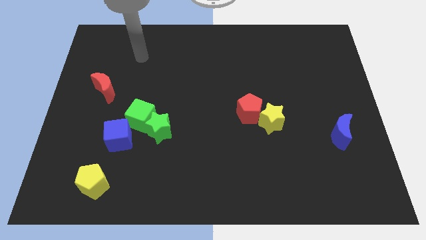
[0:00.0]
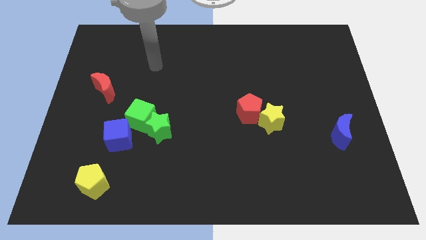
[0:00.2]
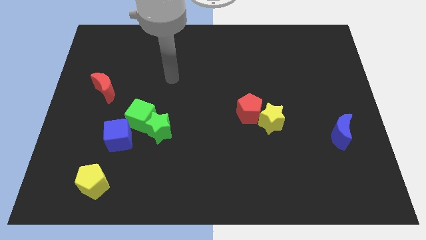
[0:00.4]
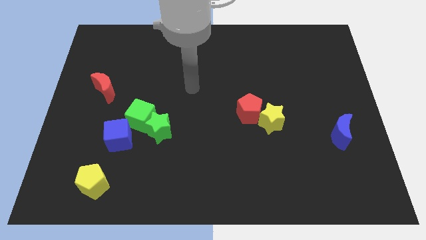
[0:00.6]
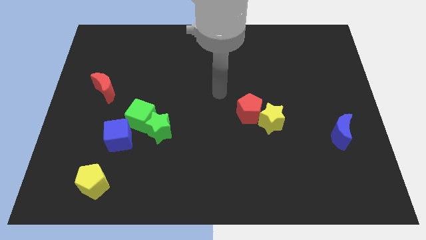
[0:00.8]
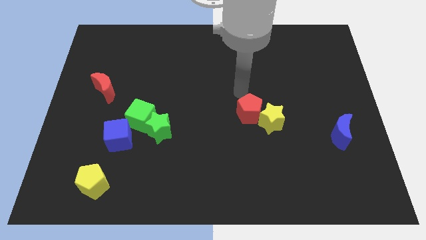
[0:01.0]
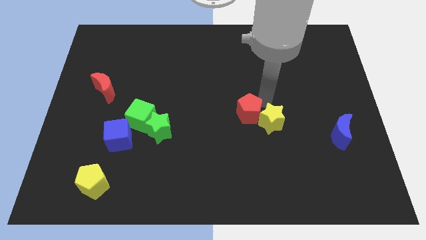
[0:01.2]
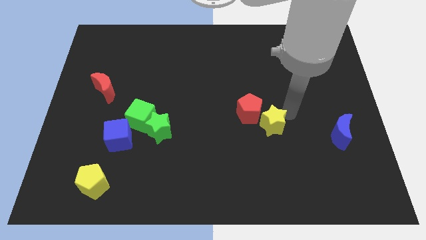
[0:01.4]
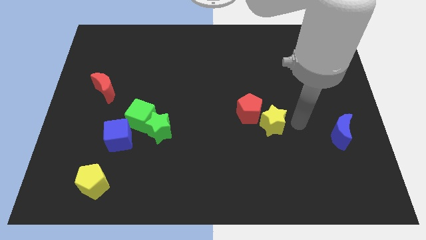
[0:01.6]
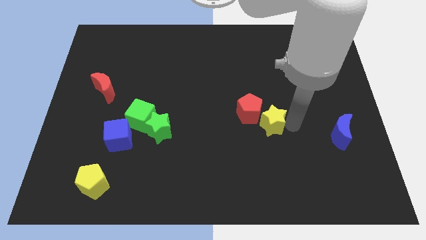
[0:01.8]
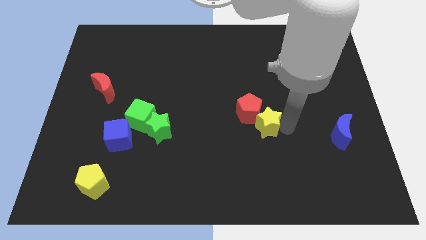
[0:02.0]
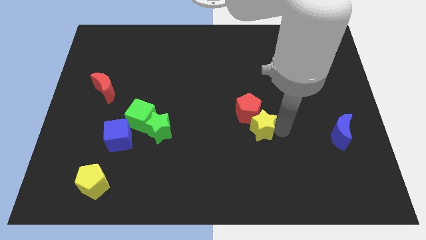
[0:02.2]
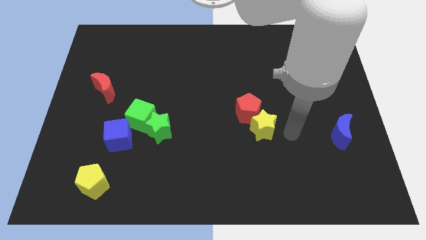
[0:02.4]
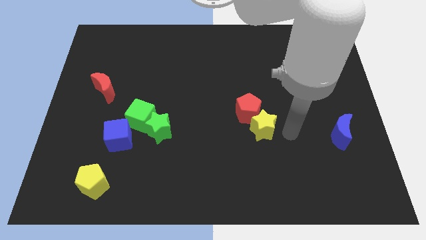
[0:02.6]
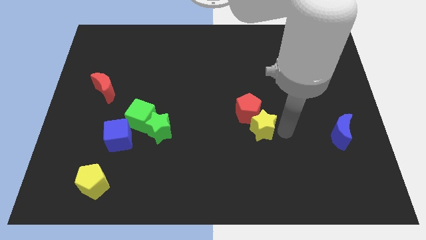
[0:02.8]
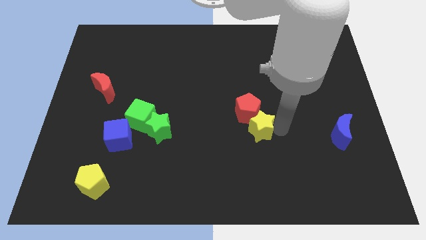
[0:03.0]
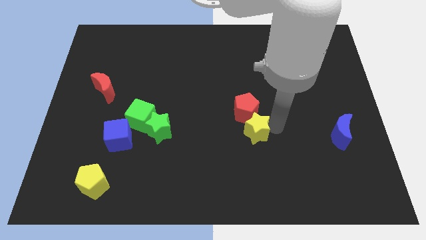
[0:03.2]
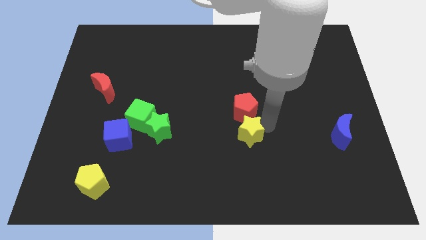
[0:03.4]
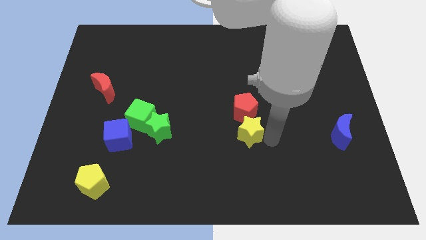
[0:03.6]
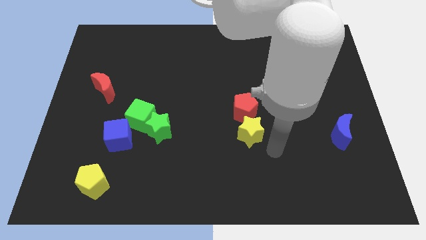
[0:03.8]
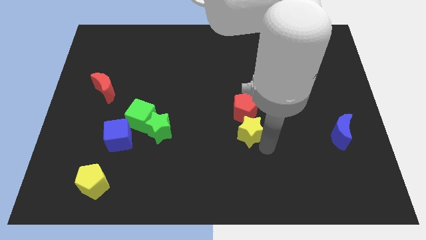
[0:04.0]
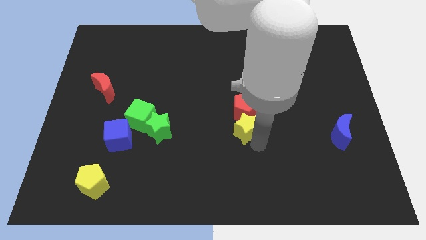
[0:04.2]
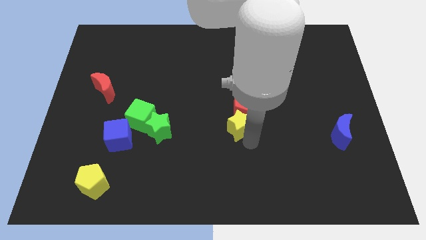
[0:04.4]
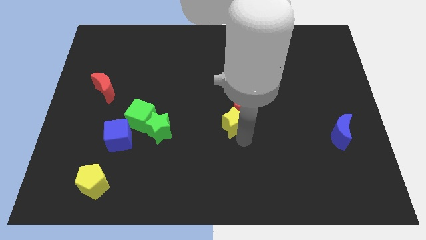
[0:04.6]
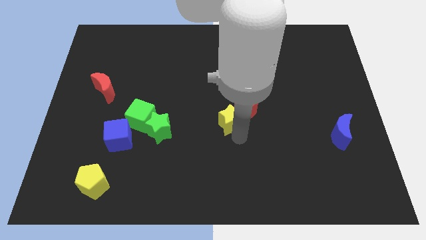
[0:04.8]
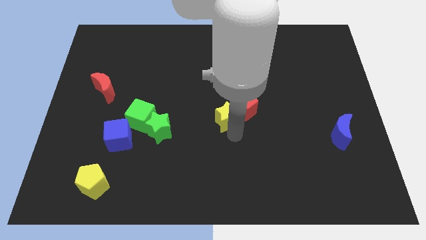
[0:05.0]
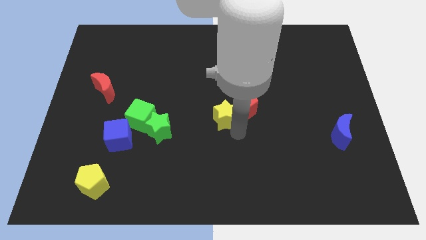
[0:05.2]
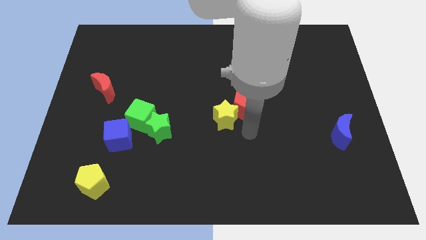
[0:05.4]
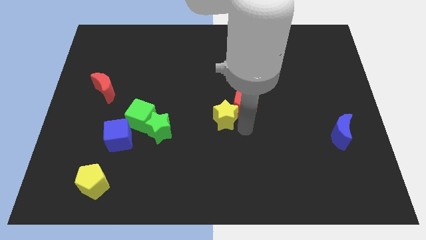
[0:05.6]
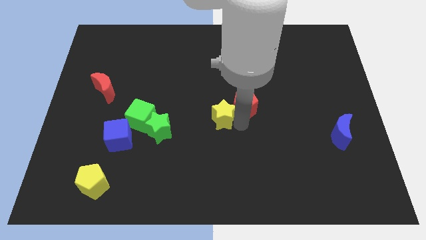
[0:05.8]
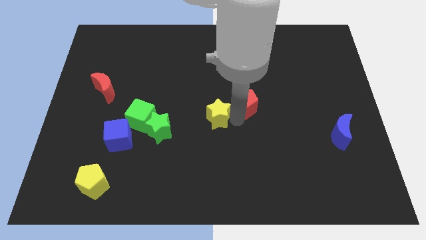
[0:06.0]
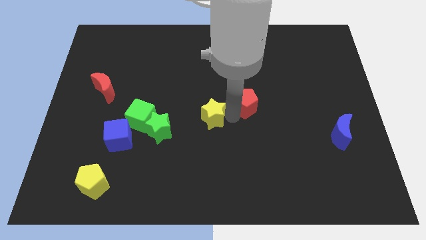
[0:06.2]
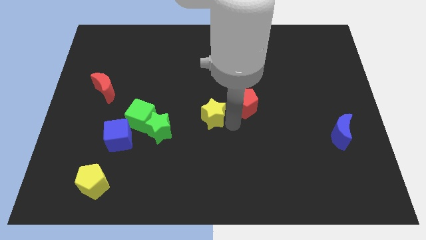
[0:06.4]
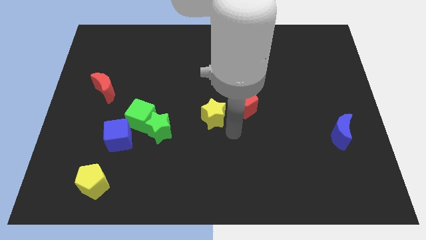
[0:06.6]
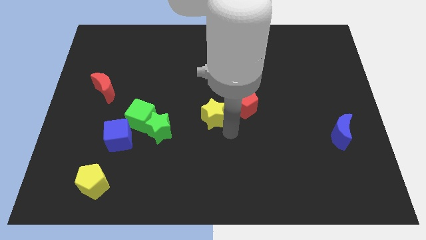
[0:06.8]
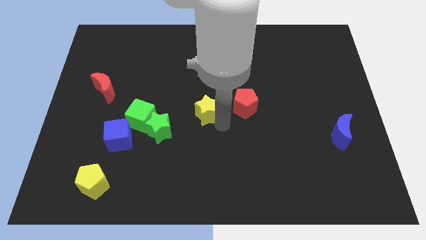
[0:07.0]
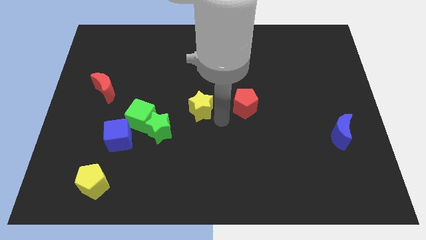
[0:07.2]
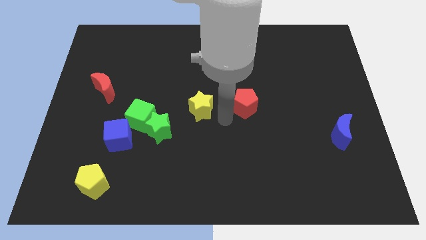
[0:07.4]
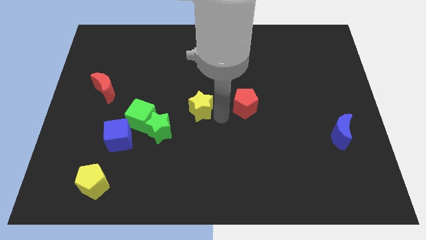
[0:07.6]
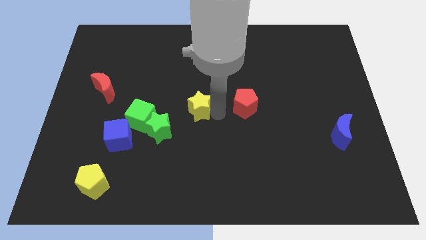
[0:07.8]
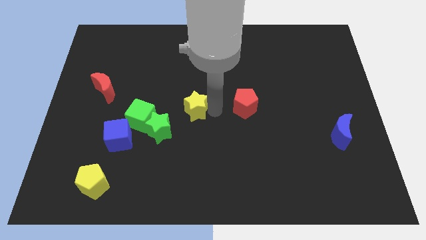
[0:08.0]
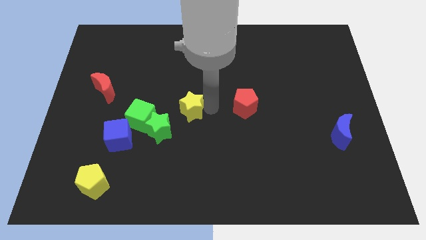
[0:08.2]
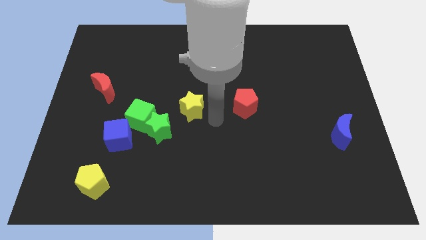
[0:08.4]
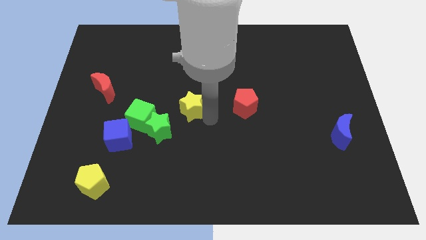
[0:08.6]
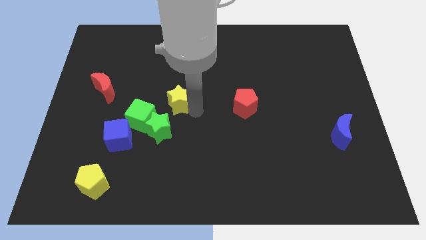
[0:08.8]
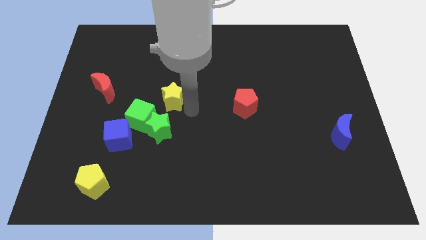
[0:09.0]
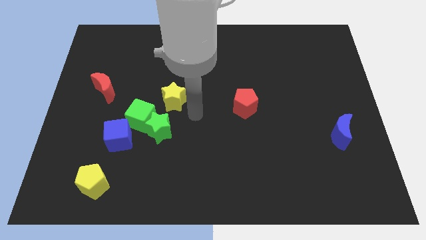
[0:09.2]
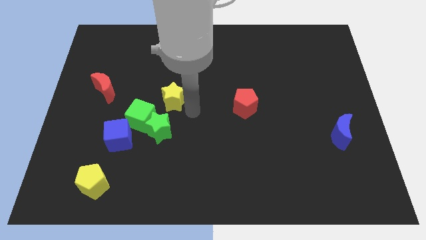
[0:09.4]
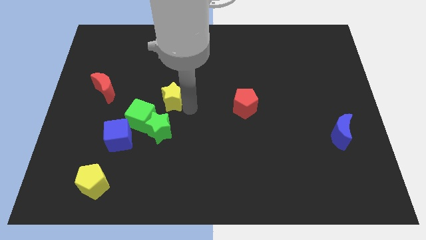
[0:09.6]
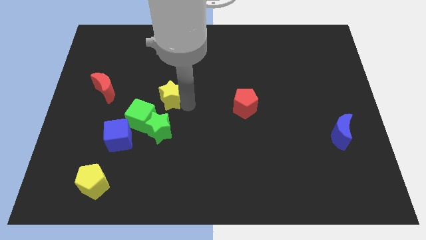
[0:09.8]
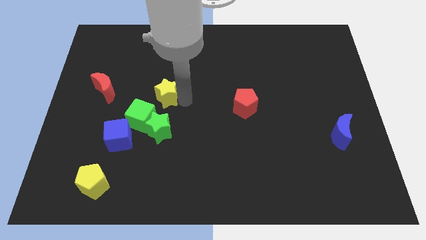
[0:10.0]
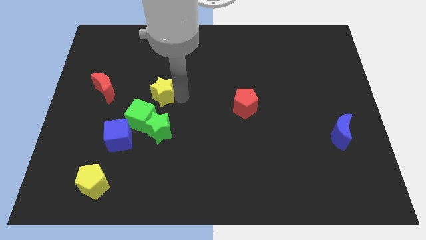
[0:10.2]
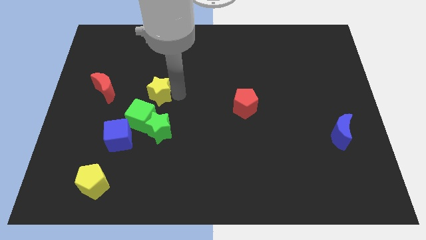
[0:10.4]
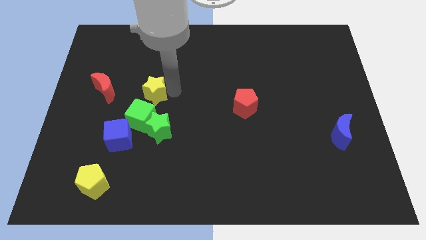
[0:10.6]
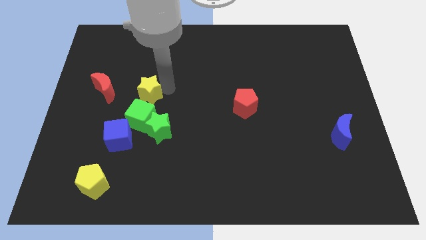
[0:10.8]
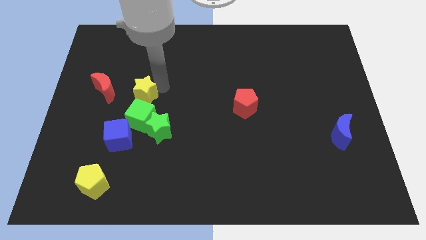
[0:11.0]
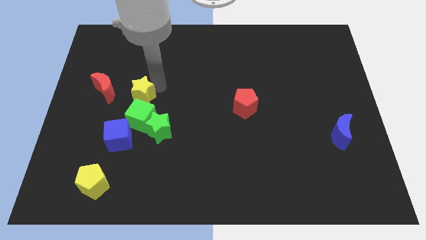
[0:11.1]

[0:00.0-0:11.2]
put the yellow star diagonally up and to the left of the green cube

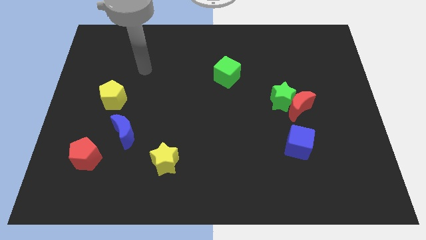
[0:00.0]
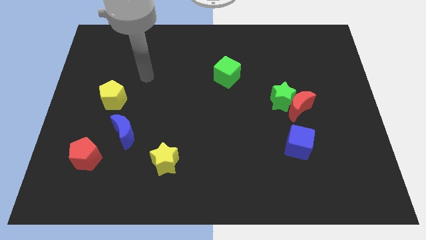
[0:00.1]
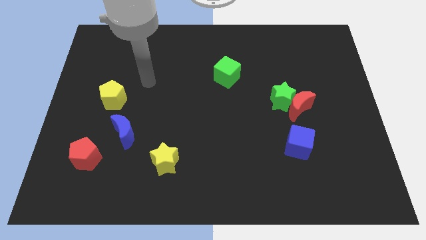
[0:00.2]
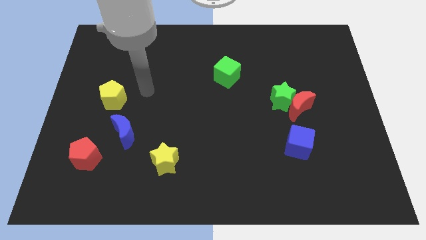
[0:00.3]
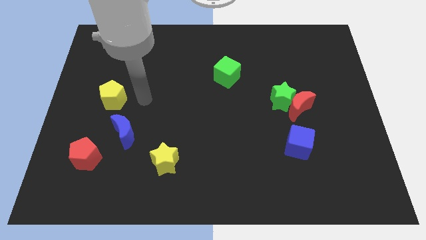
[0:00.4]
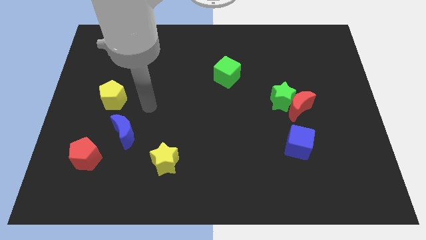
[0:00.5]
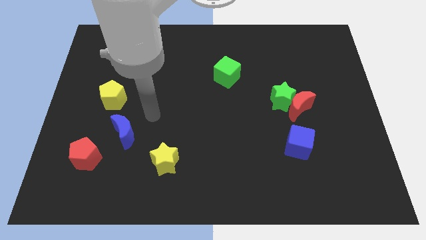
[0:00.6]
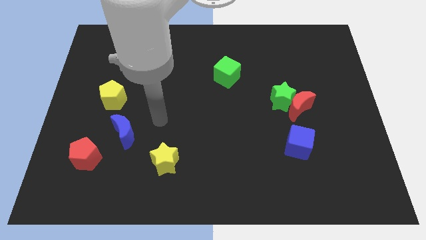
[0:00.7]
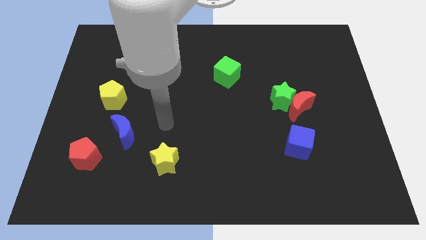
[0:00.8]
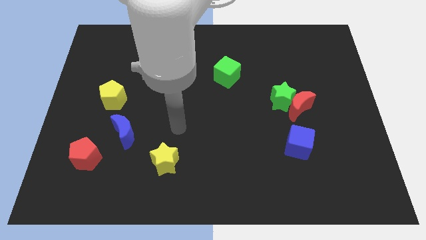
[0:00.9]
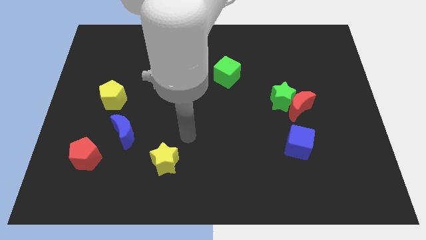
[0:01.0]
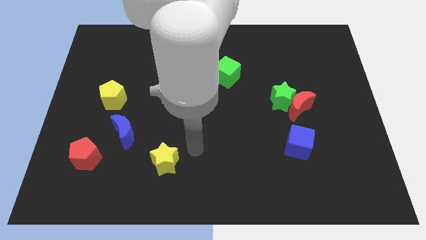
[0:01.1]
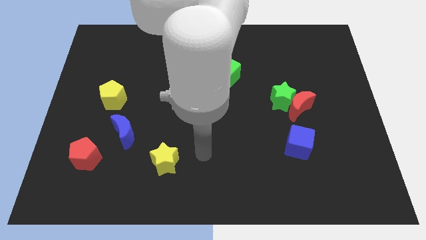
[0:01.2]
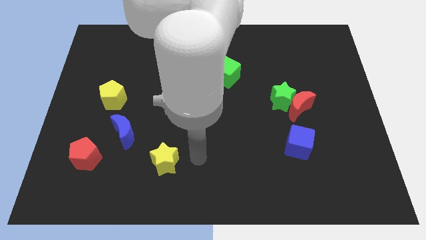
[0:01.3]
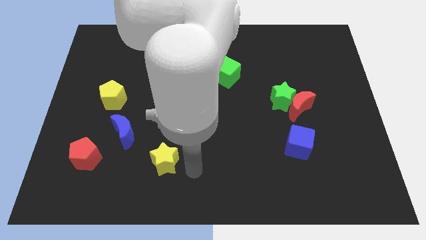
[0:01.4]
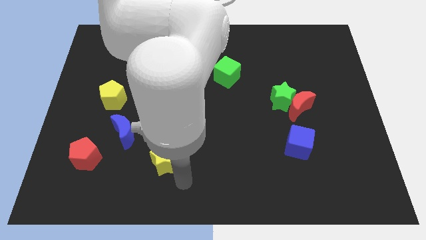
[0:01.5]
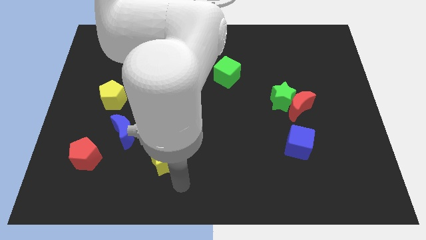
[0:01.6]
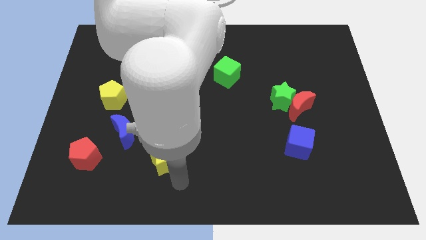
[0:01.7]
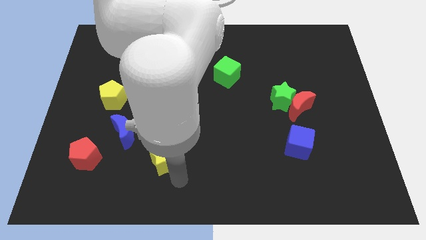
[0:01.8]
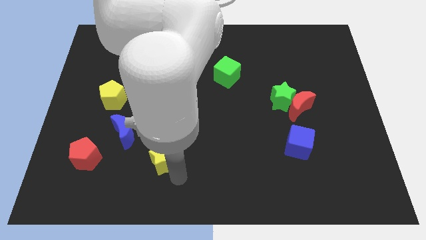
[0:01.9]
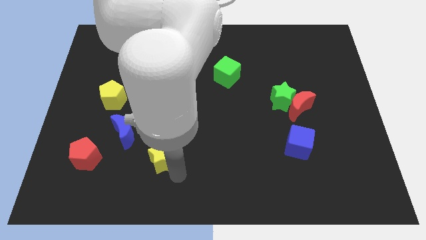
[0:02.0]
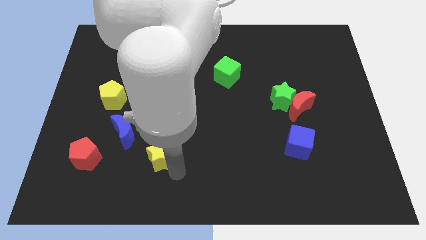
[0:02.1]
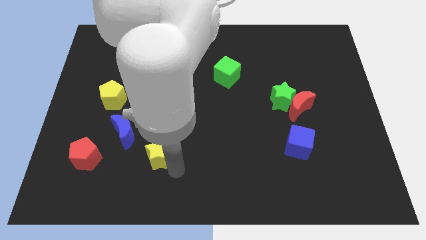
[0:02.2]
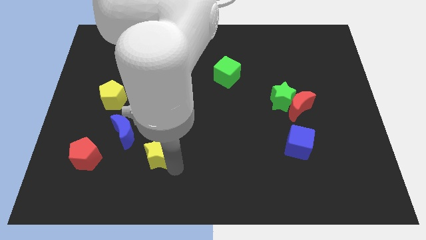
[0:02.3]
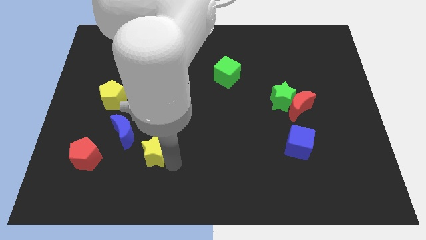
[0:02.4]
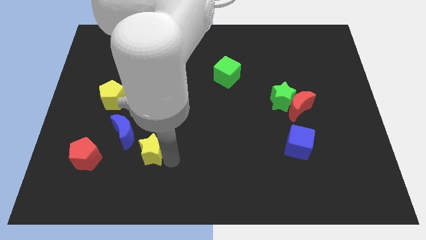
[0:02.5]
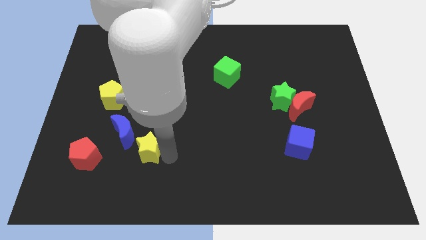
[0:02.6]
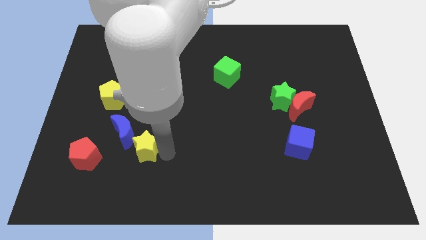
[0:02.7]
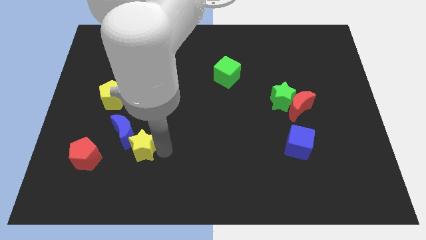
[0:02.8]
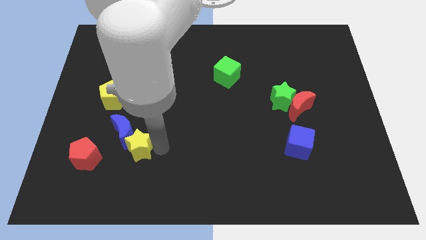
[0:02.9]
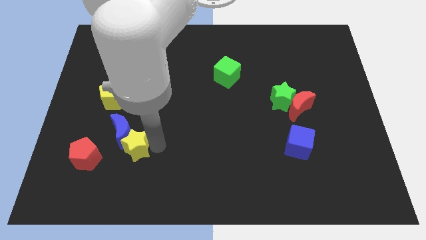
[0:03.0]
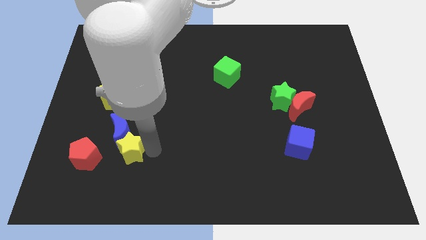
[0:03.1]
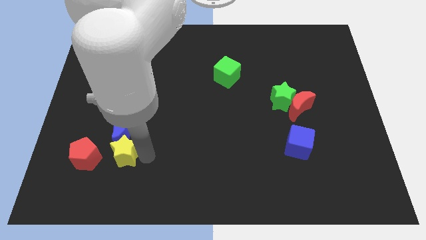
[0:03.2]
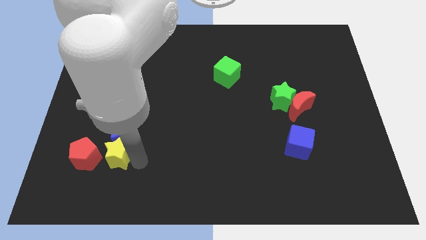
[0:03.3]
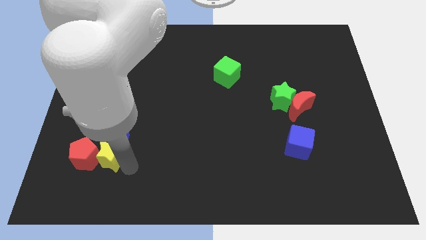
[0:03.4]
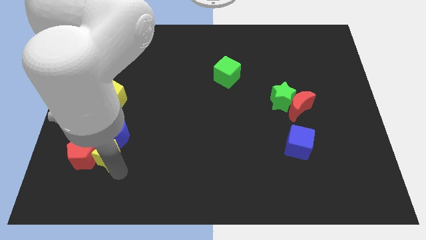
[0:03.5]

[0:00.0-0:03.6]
slide the yellow star below the yellow pentagon
